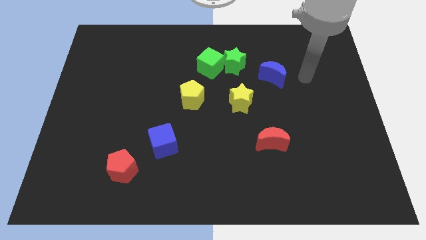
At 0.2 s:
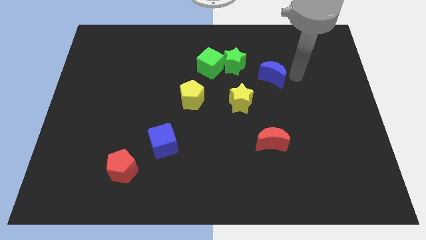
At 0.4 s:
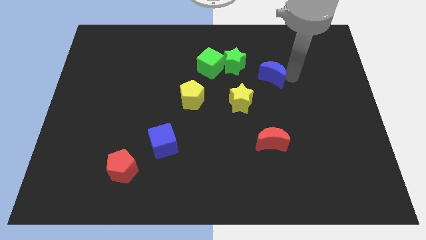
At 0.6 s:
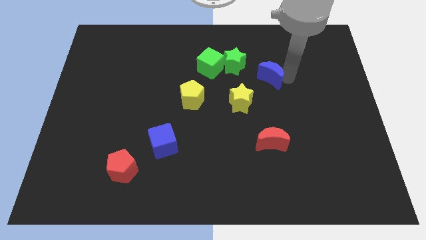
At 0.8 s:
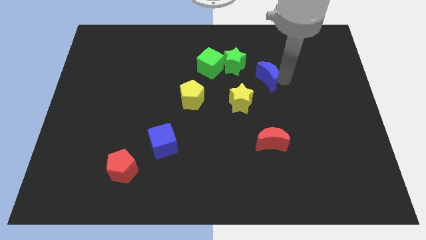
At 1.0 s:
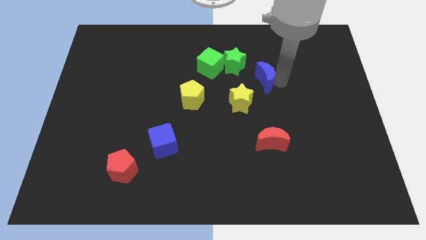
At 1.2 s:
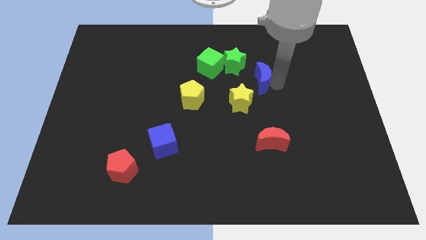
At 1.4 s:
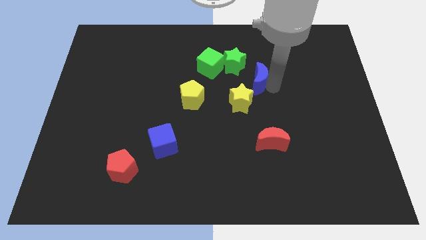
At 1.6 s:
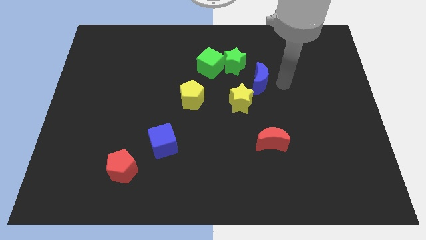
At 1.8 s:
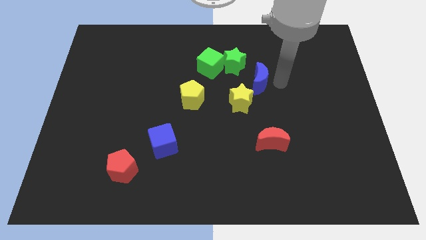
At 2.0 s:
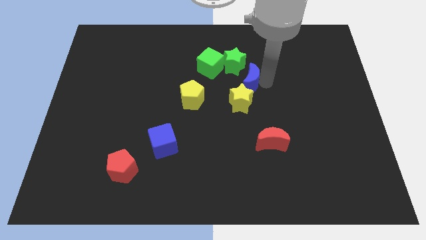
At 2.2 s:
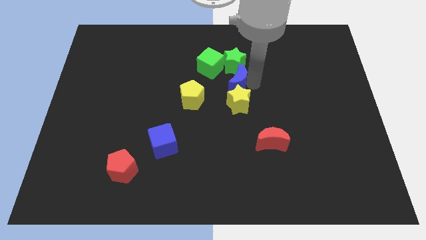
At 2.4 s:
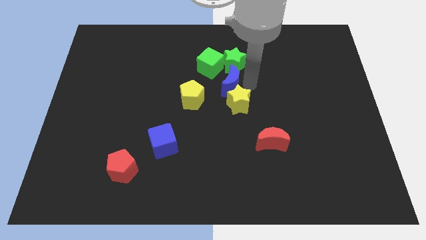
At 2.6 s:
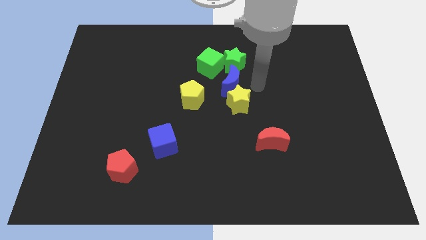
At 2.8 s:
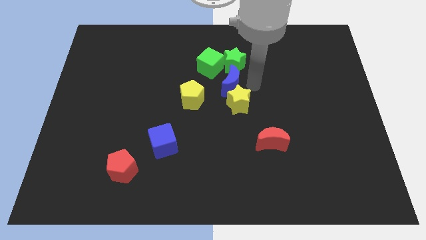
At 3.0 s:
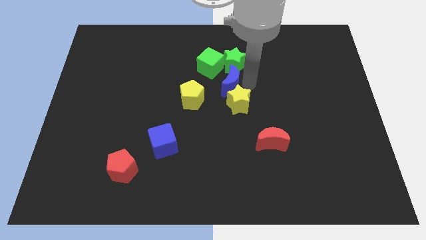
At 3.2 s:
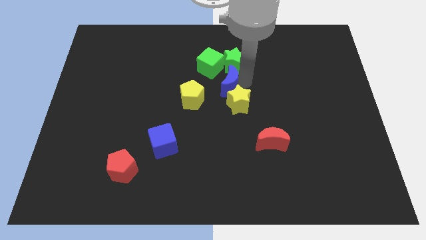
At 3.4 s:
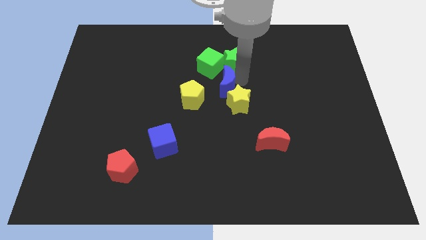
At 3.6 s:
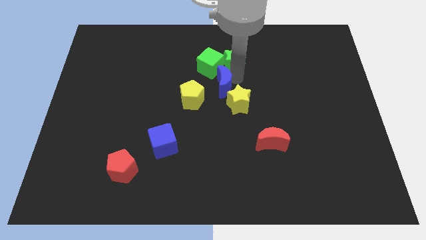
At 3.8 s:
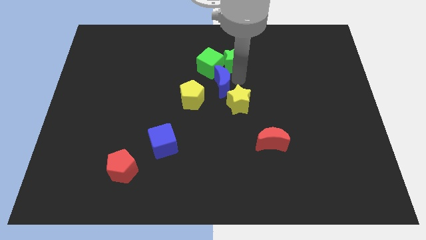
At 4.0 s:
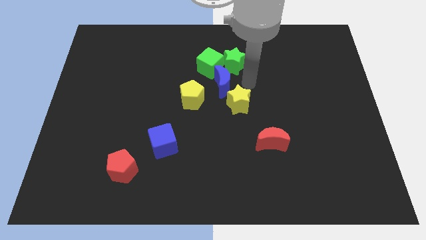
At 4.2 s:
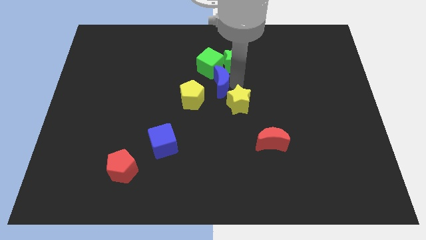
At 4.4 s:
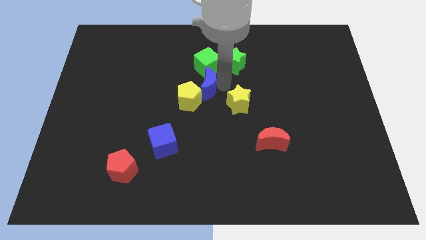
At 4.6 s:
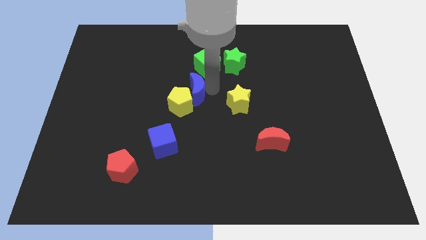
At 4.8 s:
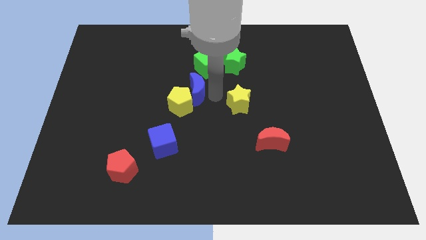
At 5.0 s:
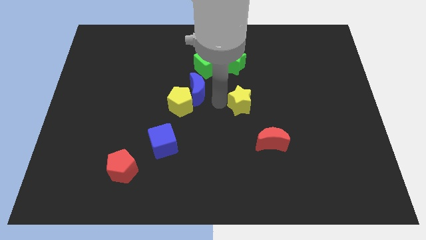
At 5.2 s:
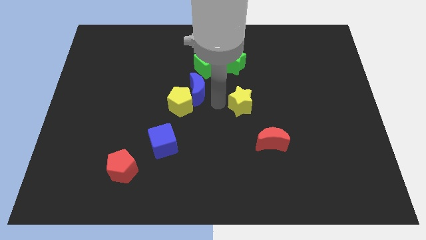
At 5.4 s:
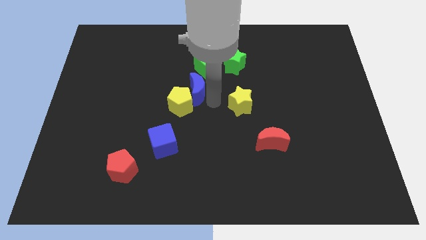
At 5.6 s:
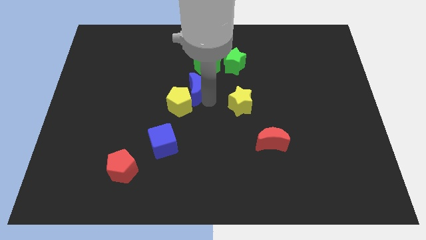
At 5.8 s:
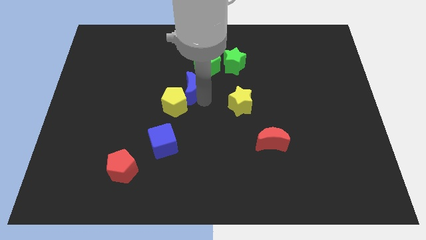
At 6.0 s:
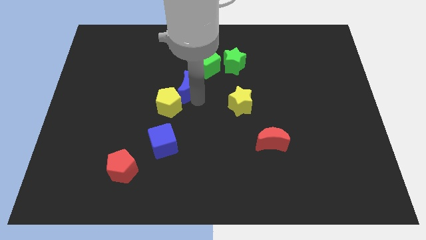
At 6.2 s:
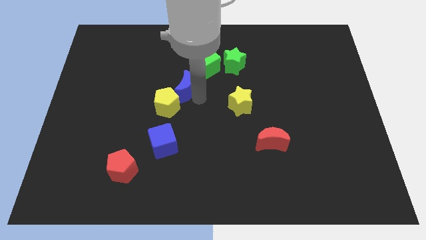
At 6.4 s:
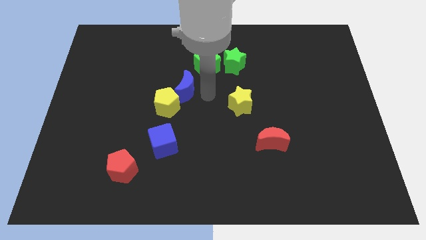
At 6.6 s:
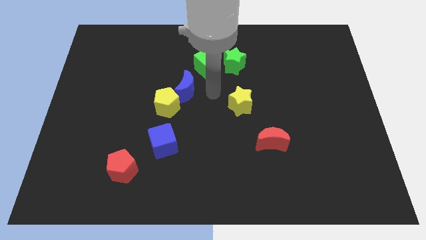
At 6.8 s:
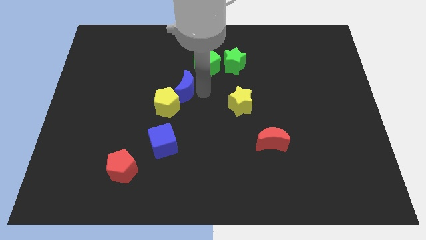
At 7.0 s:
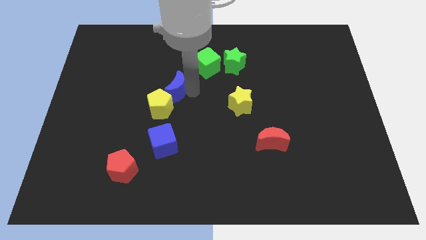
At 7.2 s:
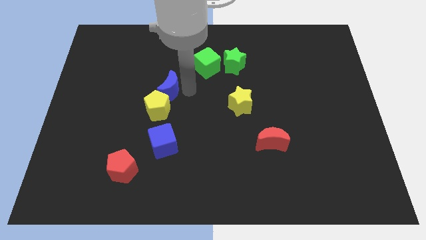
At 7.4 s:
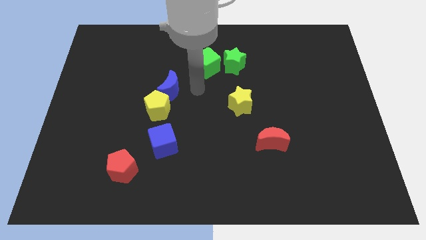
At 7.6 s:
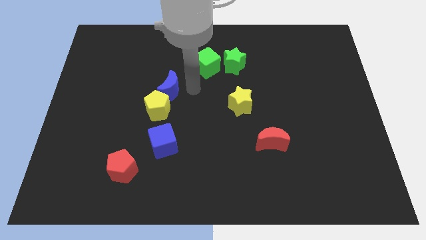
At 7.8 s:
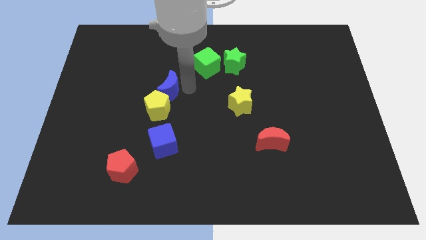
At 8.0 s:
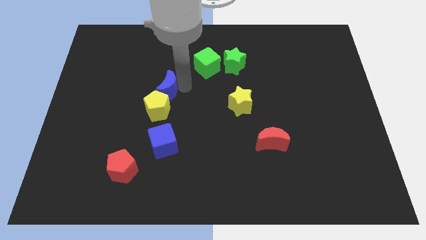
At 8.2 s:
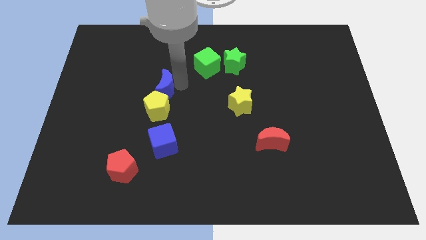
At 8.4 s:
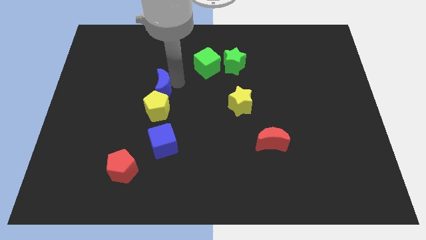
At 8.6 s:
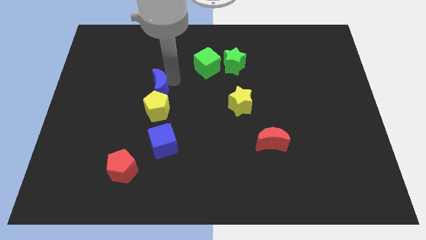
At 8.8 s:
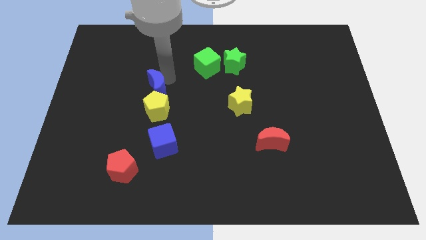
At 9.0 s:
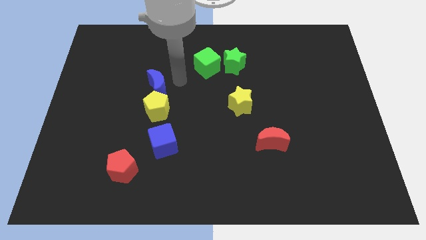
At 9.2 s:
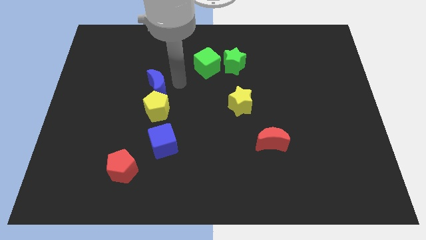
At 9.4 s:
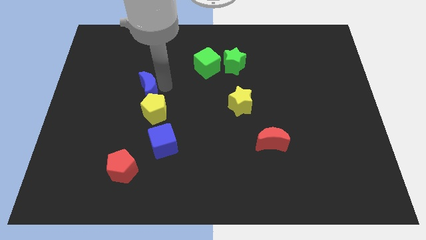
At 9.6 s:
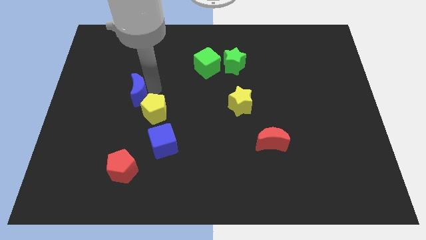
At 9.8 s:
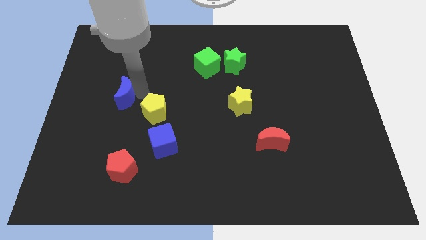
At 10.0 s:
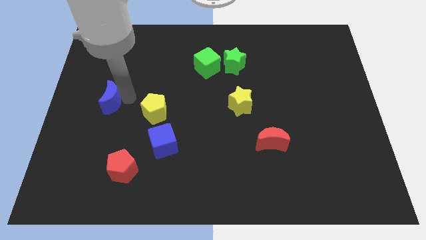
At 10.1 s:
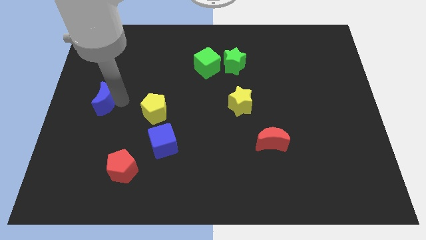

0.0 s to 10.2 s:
slide the blue moon to the left side of the board

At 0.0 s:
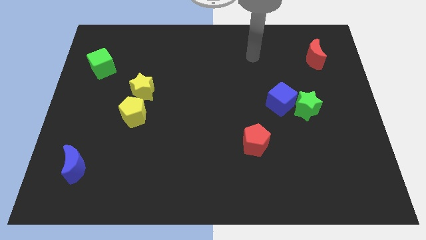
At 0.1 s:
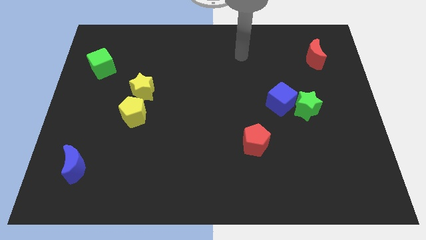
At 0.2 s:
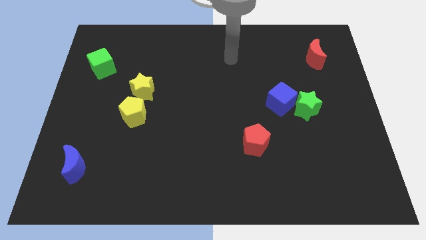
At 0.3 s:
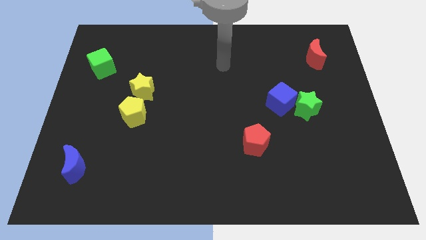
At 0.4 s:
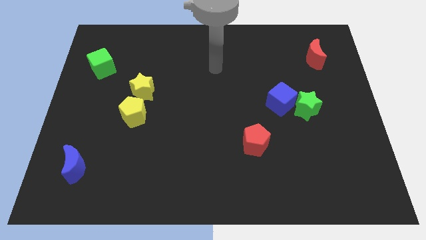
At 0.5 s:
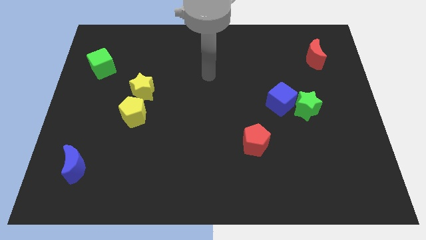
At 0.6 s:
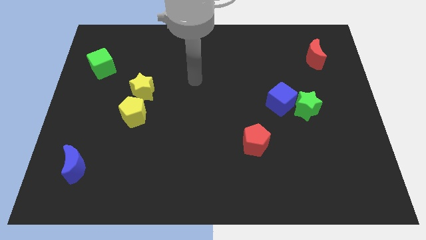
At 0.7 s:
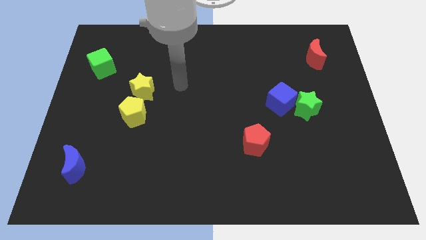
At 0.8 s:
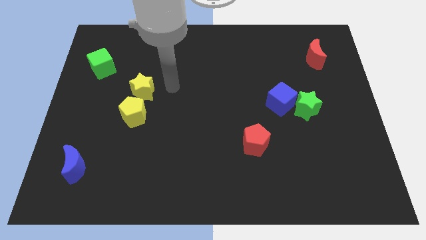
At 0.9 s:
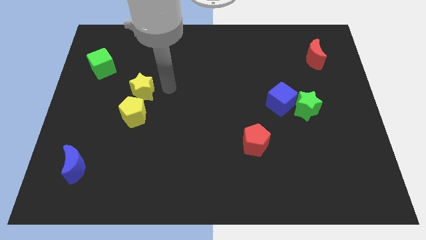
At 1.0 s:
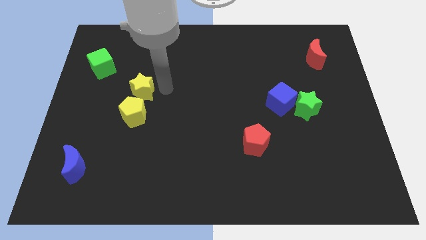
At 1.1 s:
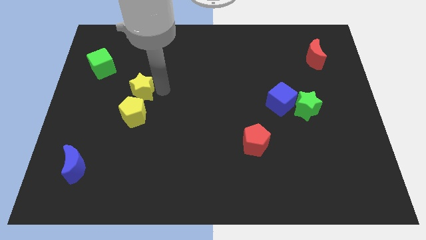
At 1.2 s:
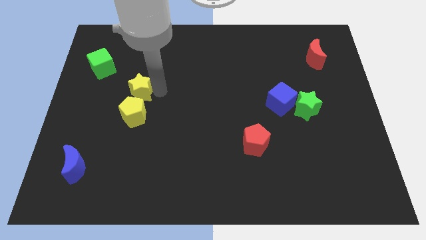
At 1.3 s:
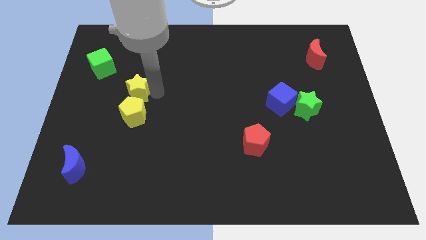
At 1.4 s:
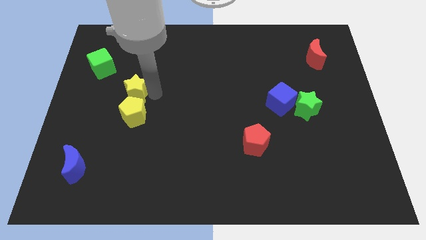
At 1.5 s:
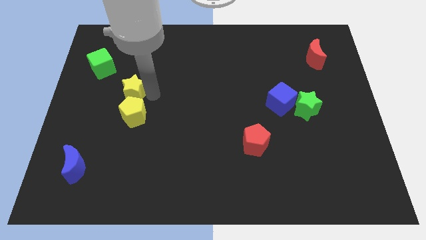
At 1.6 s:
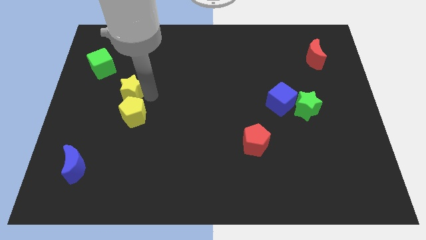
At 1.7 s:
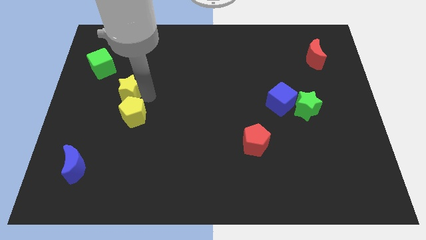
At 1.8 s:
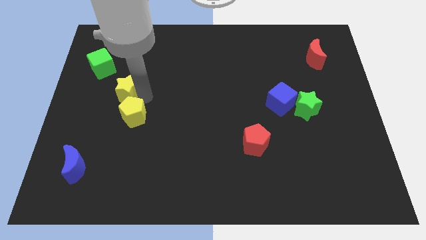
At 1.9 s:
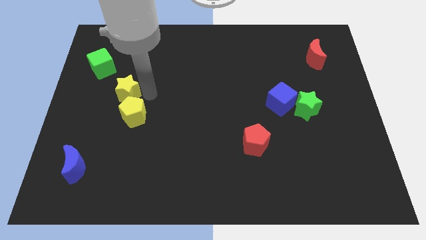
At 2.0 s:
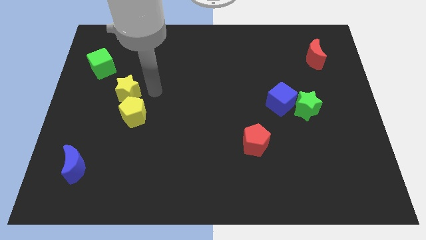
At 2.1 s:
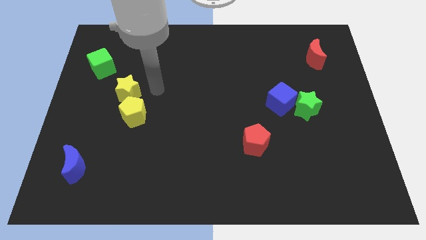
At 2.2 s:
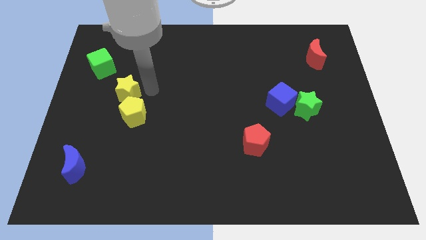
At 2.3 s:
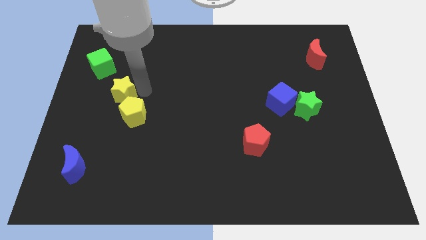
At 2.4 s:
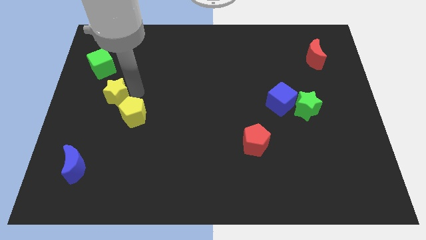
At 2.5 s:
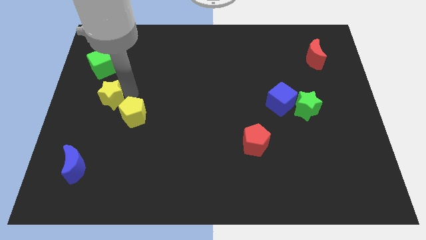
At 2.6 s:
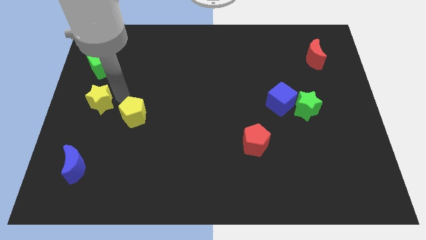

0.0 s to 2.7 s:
put the yellow star to the center left
